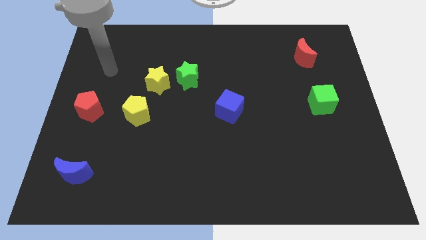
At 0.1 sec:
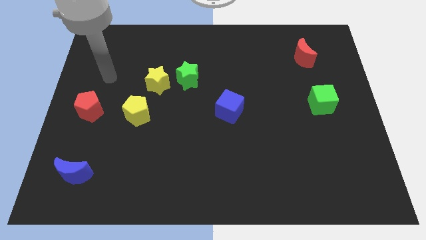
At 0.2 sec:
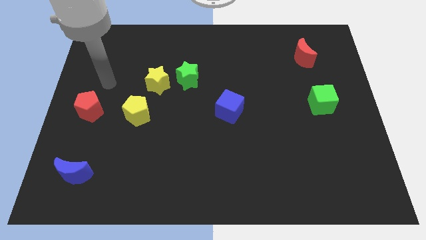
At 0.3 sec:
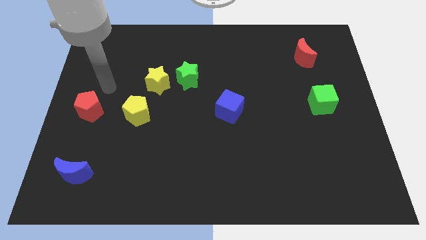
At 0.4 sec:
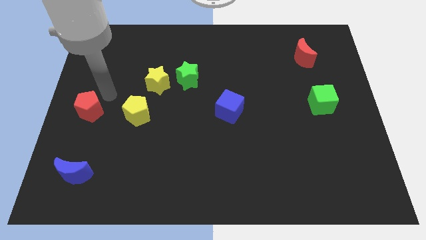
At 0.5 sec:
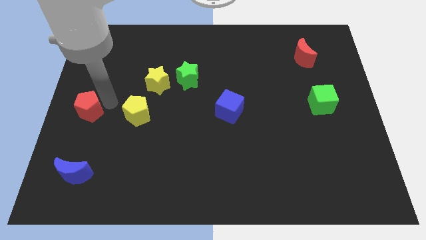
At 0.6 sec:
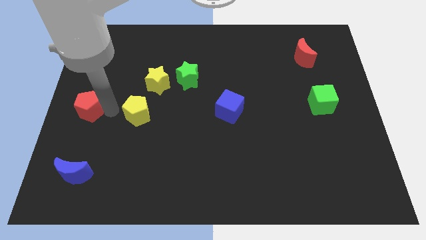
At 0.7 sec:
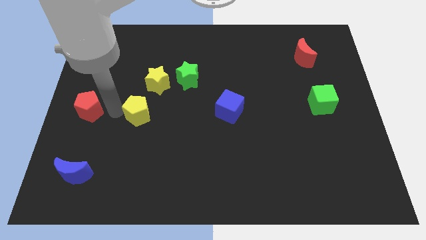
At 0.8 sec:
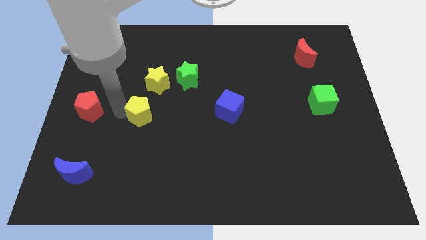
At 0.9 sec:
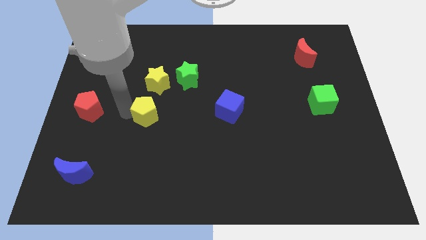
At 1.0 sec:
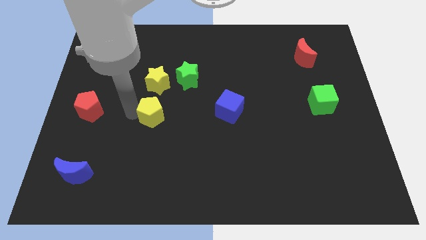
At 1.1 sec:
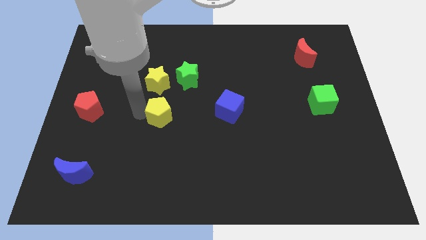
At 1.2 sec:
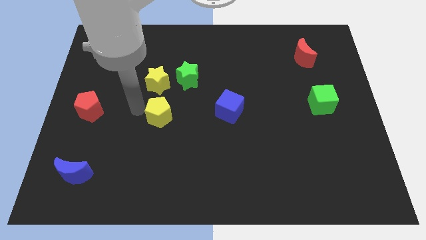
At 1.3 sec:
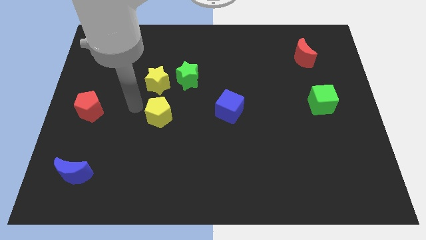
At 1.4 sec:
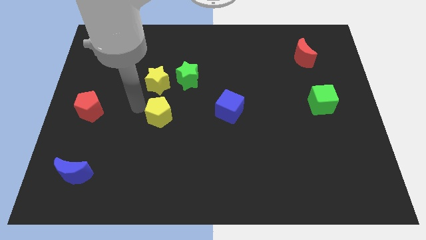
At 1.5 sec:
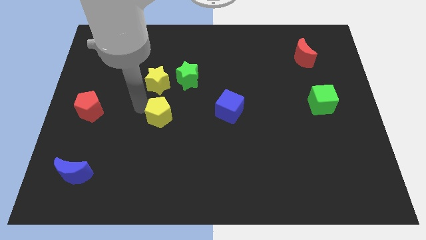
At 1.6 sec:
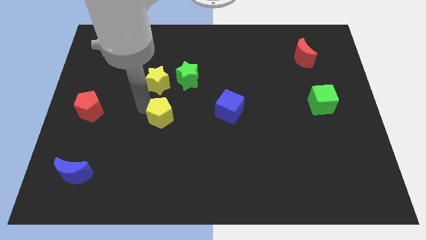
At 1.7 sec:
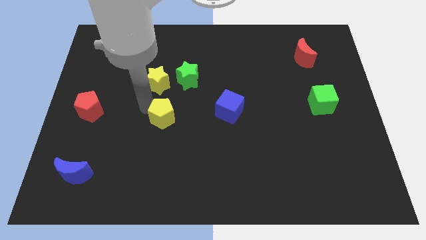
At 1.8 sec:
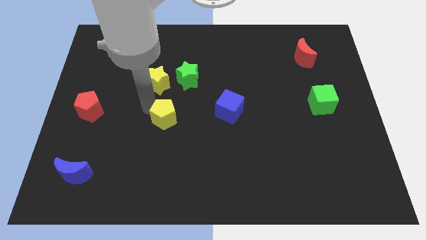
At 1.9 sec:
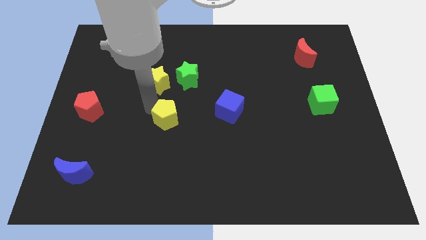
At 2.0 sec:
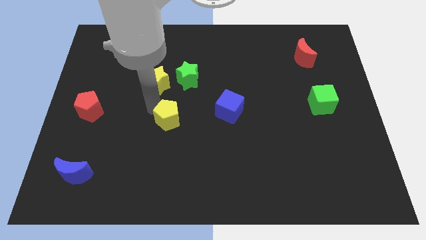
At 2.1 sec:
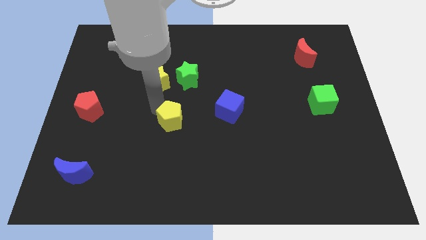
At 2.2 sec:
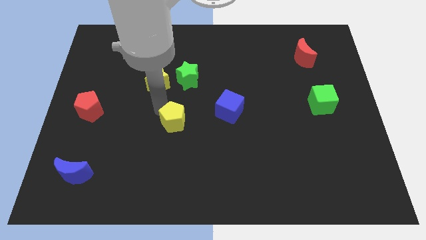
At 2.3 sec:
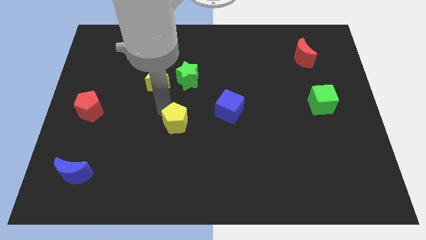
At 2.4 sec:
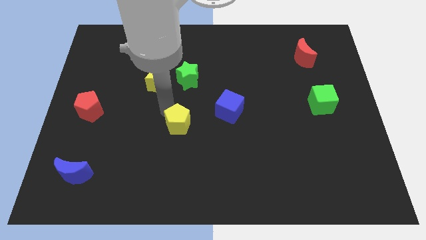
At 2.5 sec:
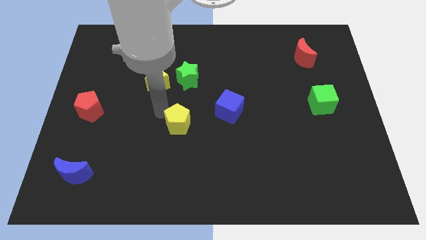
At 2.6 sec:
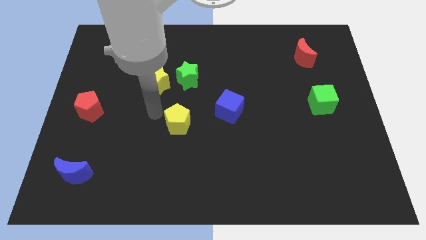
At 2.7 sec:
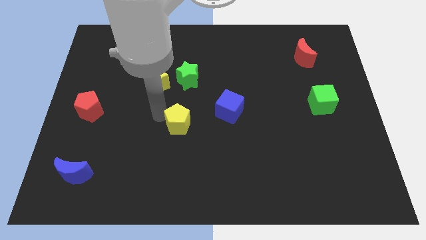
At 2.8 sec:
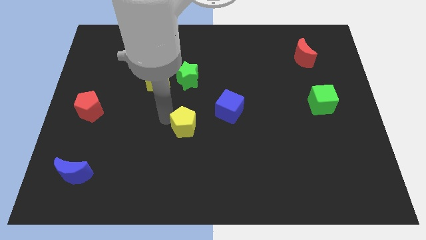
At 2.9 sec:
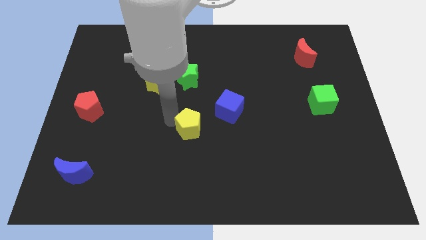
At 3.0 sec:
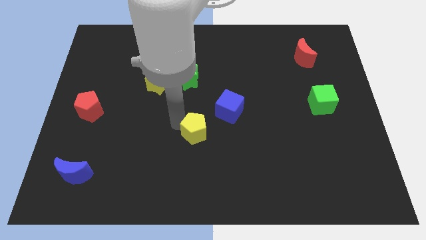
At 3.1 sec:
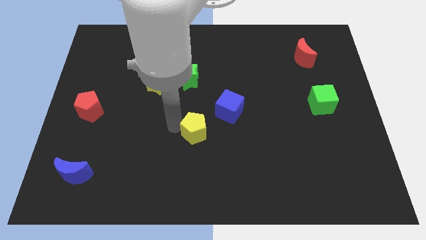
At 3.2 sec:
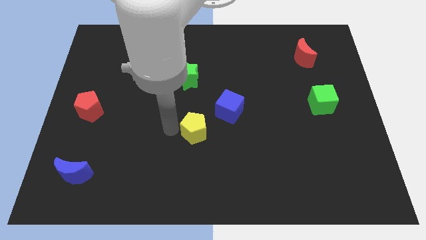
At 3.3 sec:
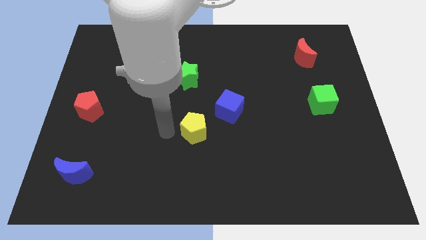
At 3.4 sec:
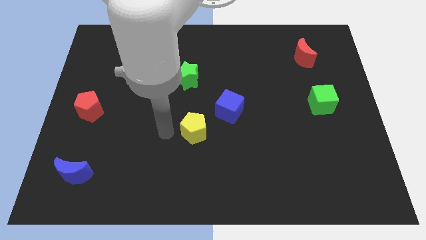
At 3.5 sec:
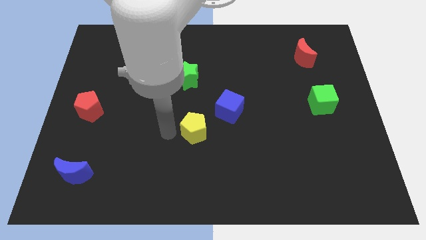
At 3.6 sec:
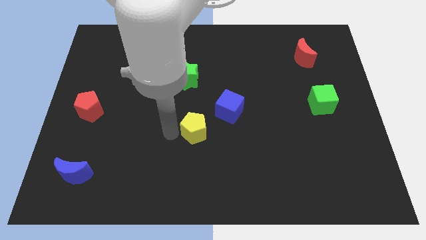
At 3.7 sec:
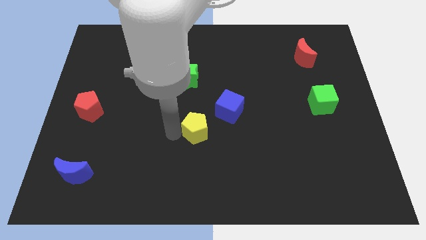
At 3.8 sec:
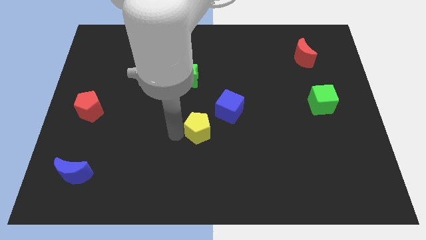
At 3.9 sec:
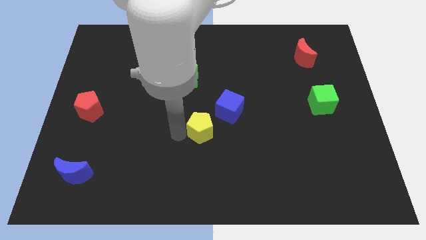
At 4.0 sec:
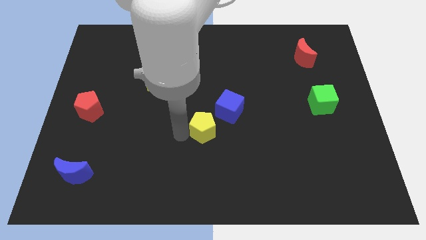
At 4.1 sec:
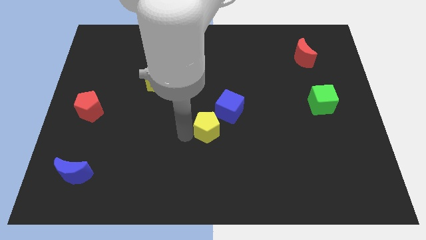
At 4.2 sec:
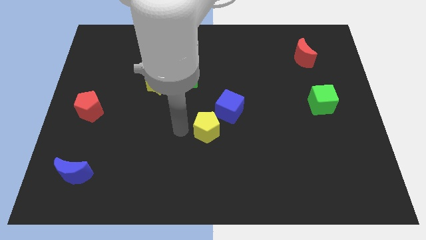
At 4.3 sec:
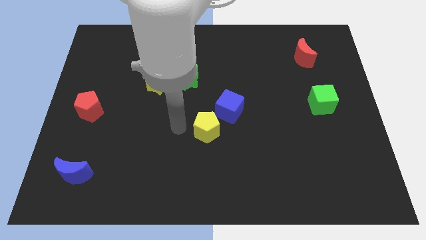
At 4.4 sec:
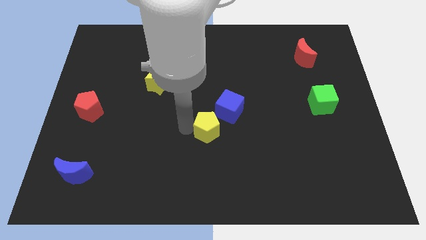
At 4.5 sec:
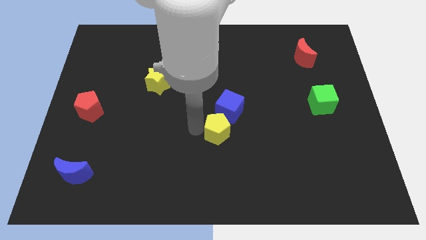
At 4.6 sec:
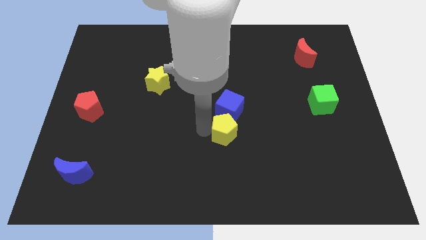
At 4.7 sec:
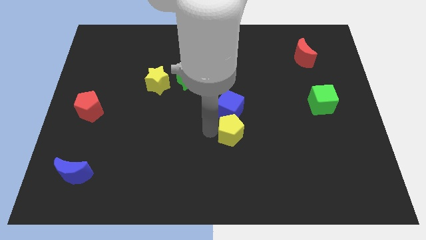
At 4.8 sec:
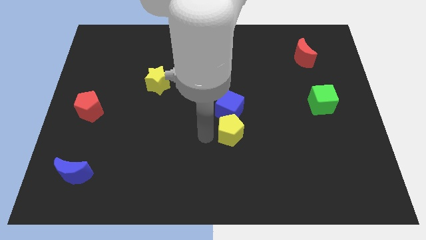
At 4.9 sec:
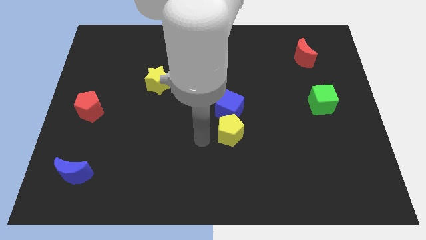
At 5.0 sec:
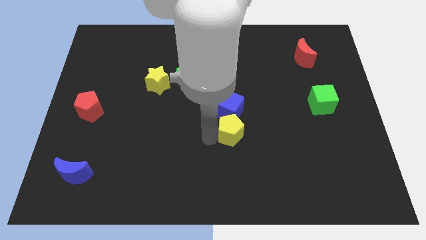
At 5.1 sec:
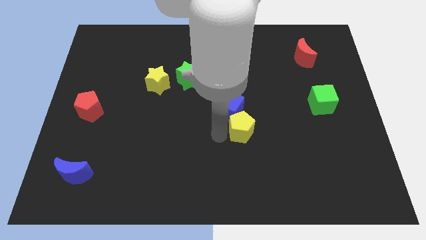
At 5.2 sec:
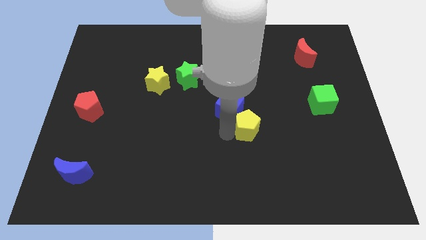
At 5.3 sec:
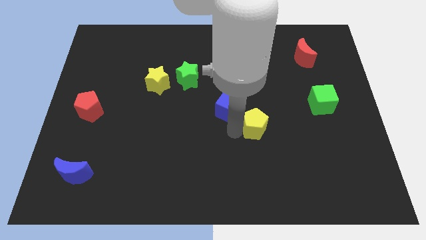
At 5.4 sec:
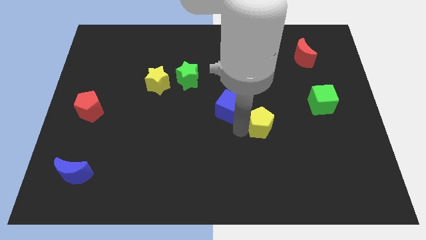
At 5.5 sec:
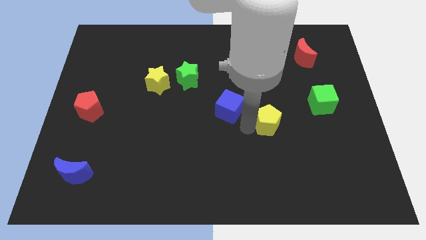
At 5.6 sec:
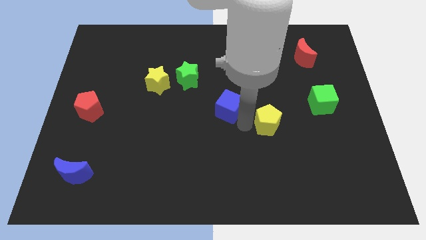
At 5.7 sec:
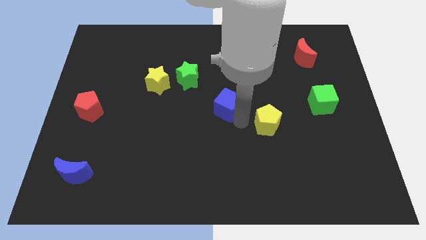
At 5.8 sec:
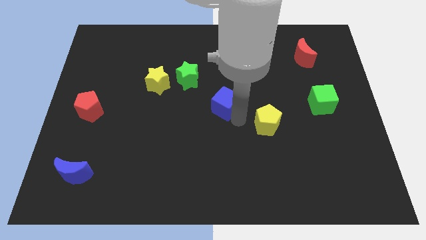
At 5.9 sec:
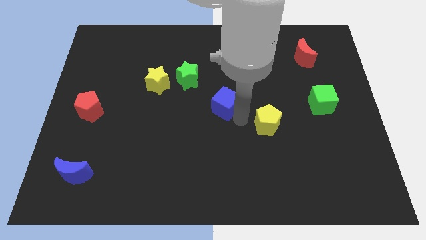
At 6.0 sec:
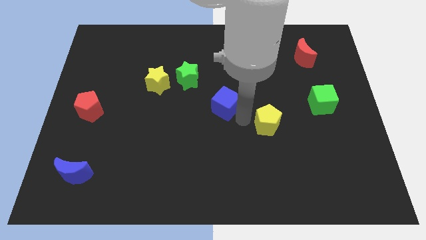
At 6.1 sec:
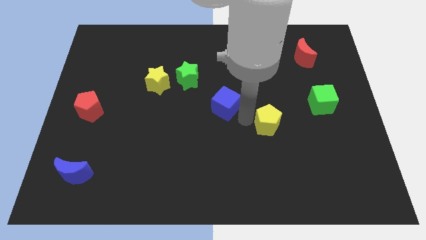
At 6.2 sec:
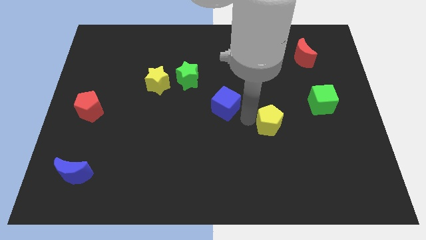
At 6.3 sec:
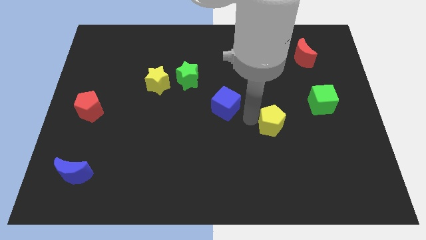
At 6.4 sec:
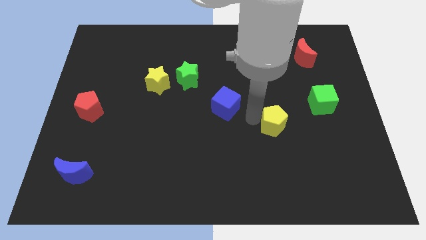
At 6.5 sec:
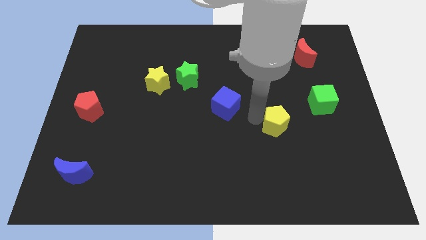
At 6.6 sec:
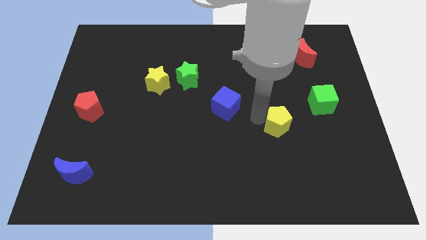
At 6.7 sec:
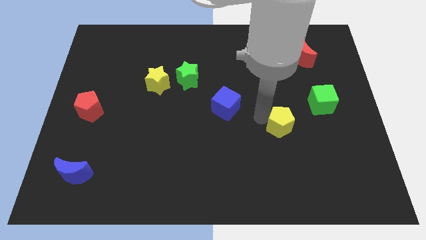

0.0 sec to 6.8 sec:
slide the yellow pentagon to the bottom left side of the green cube
